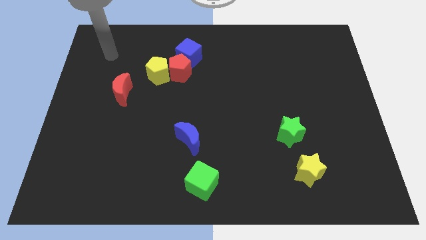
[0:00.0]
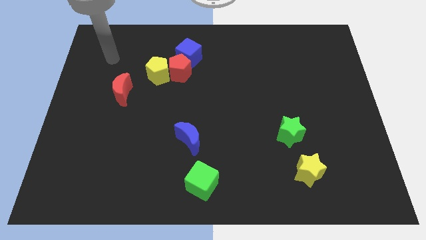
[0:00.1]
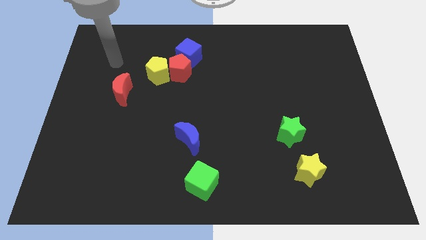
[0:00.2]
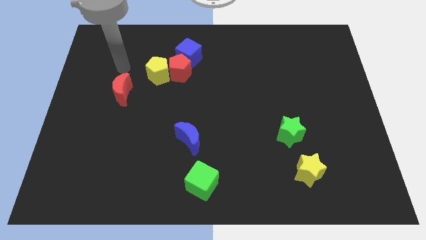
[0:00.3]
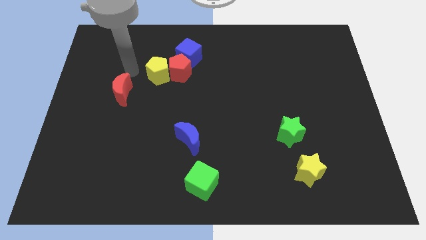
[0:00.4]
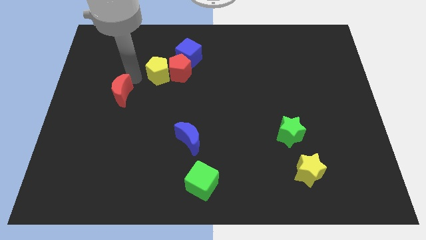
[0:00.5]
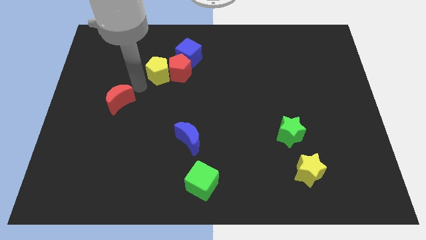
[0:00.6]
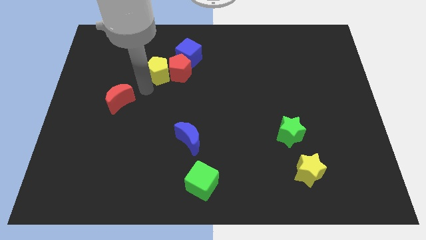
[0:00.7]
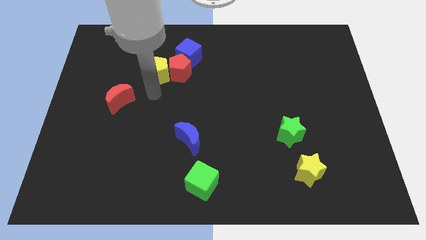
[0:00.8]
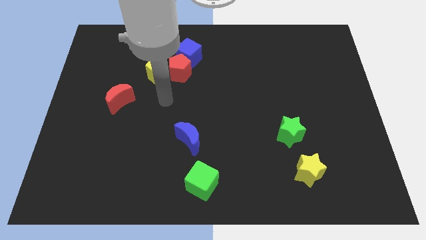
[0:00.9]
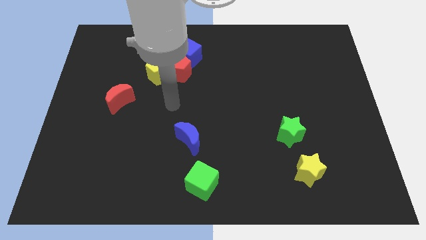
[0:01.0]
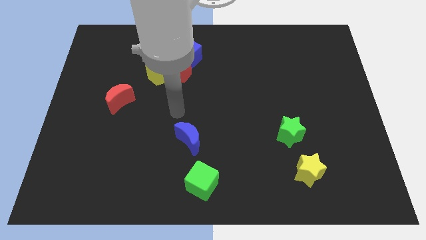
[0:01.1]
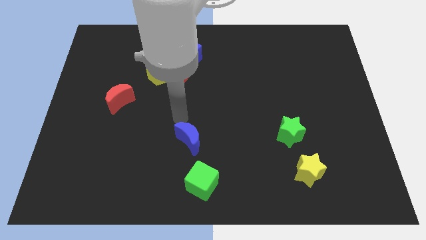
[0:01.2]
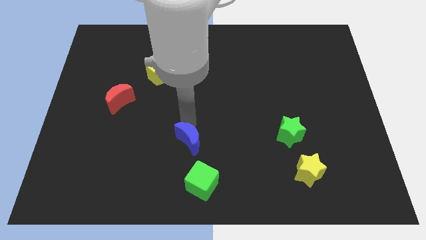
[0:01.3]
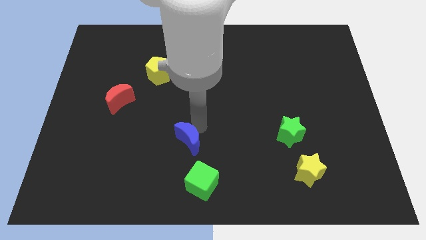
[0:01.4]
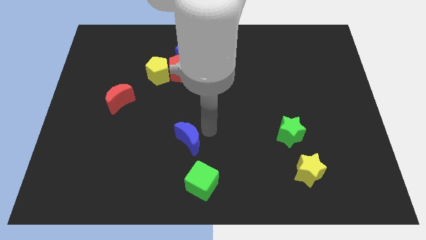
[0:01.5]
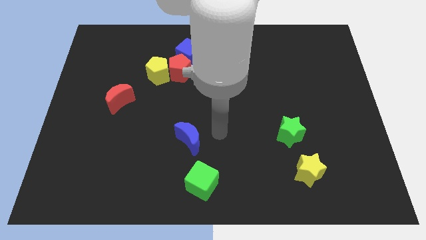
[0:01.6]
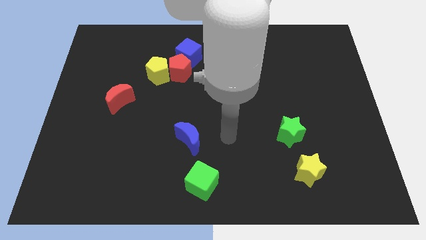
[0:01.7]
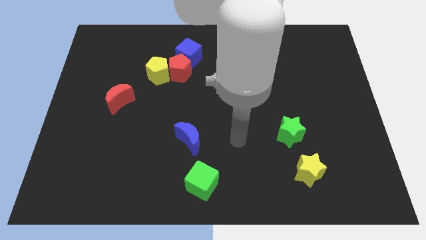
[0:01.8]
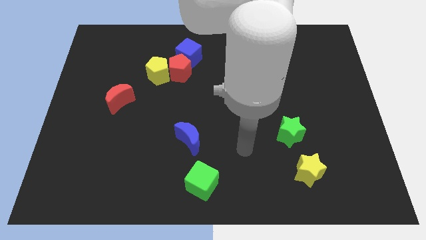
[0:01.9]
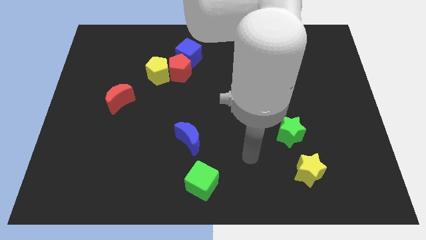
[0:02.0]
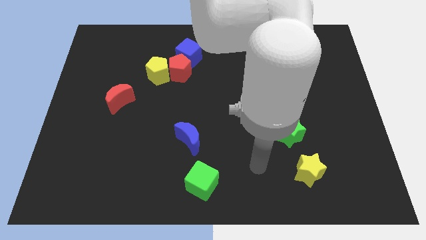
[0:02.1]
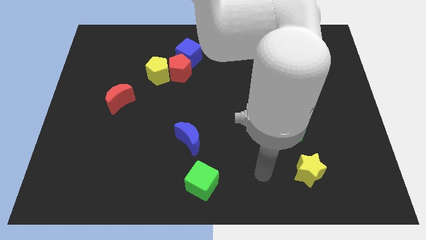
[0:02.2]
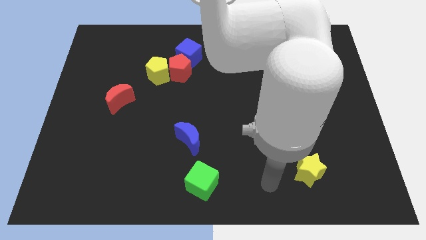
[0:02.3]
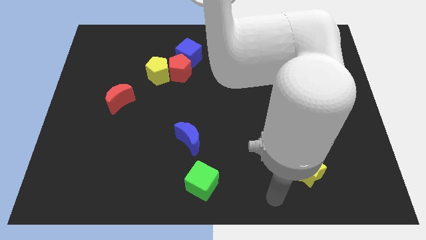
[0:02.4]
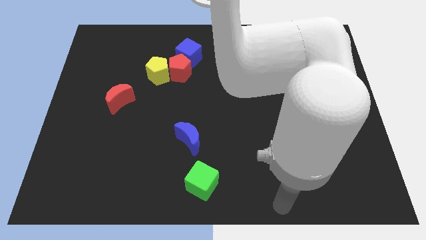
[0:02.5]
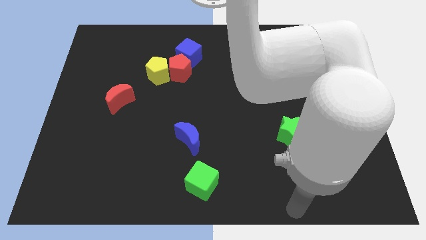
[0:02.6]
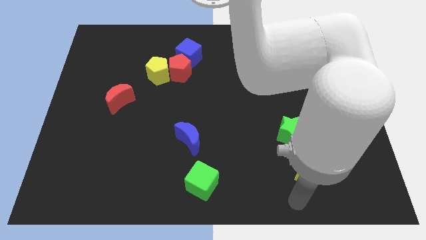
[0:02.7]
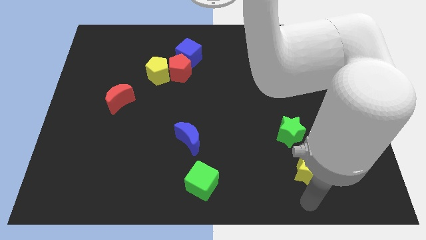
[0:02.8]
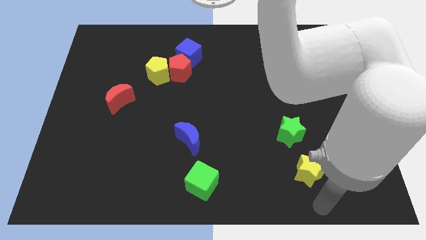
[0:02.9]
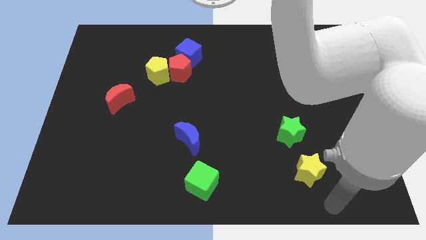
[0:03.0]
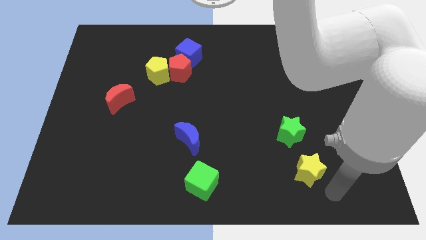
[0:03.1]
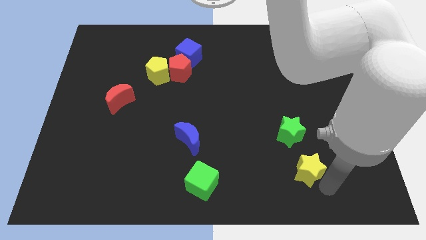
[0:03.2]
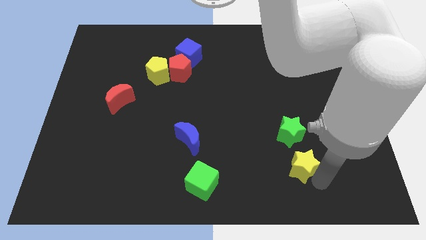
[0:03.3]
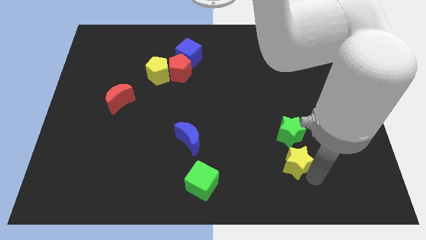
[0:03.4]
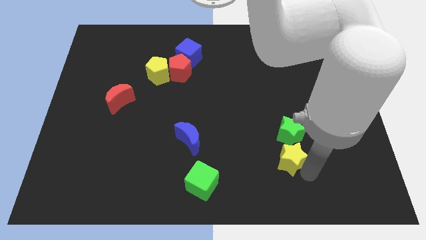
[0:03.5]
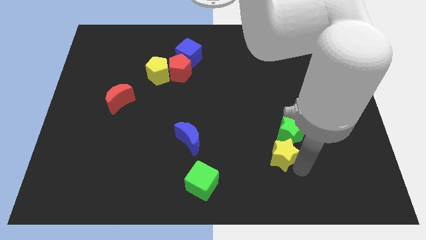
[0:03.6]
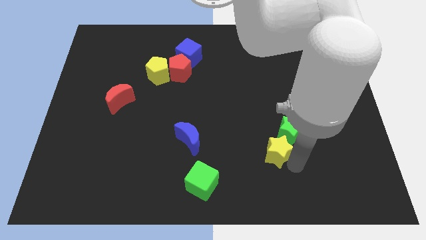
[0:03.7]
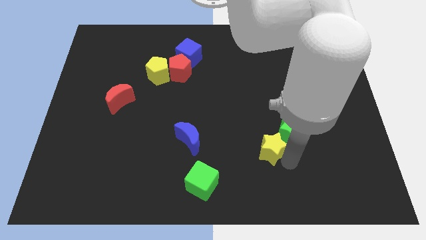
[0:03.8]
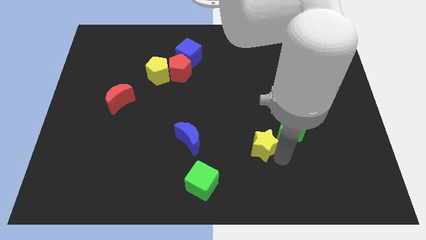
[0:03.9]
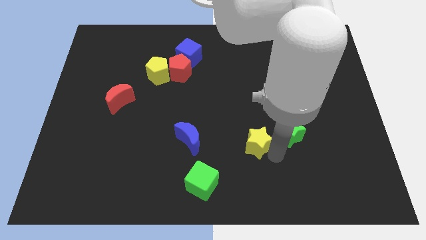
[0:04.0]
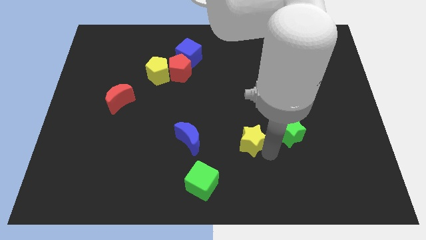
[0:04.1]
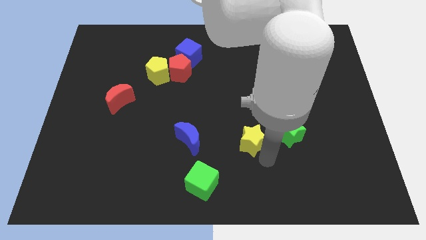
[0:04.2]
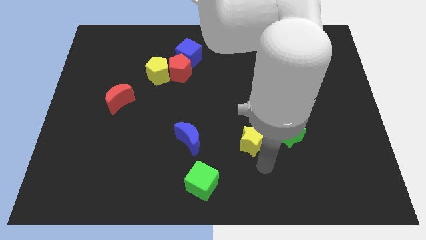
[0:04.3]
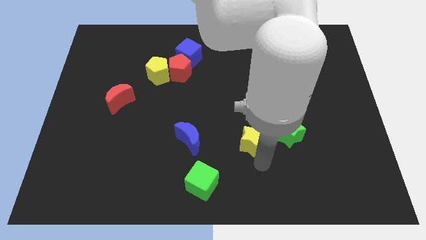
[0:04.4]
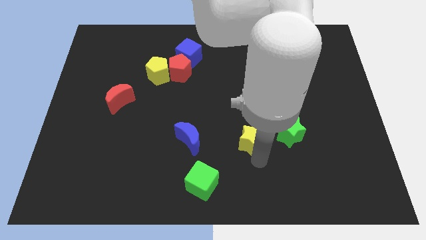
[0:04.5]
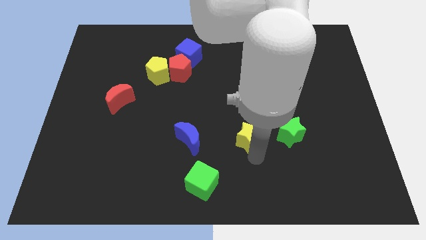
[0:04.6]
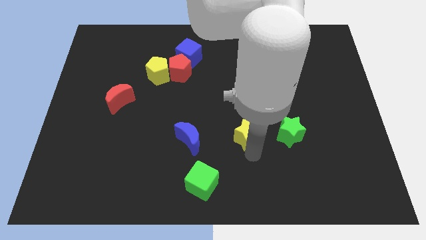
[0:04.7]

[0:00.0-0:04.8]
push the yellow star to the center of the board

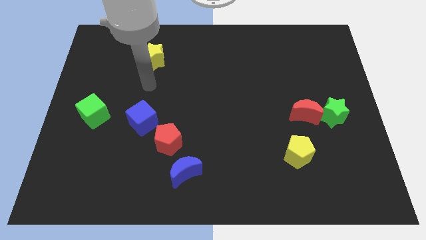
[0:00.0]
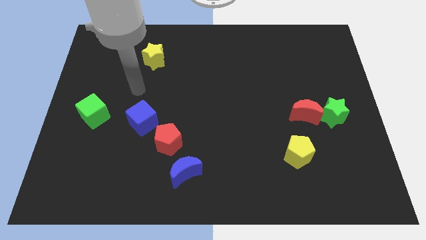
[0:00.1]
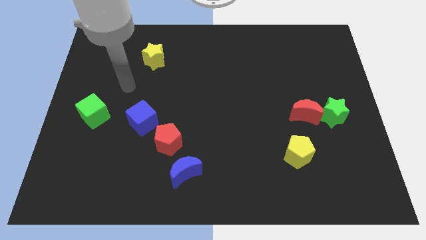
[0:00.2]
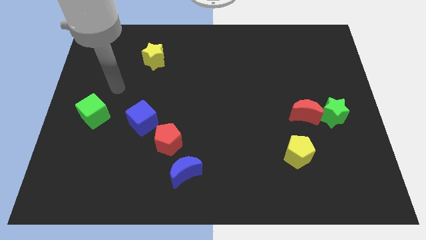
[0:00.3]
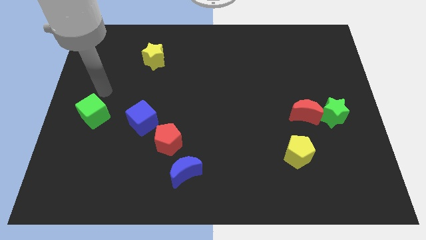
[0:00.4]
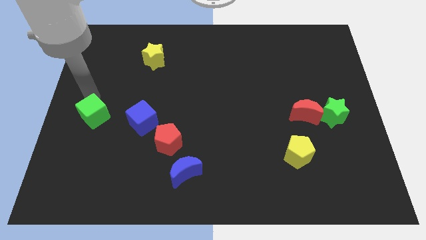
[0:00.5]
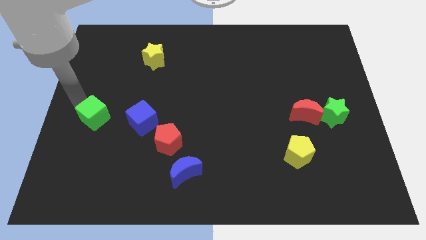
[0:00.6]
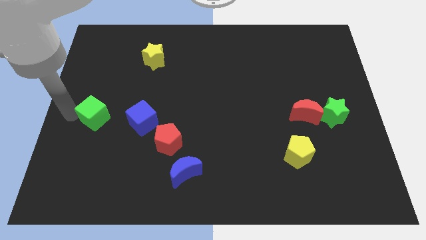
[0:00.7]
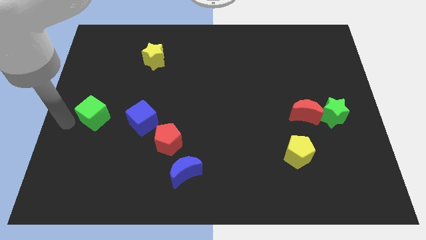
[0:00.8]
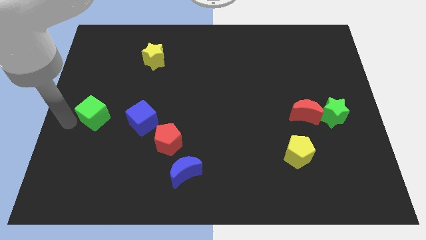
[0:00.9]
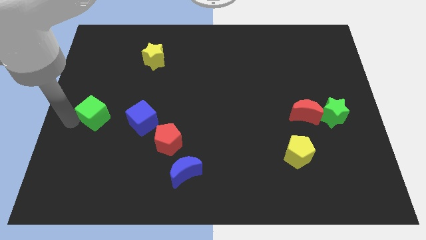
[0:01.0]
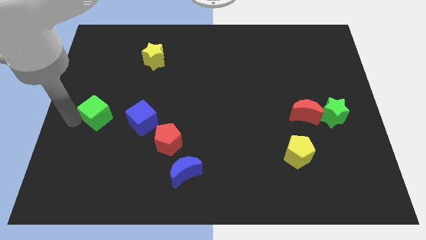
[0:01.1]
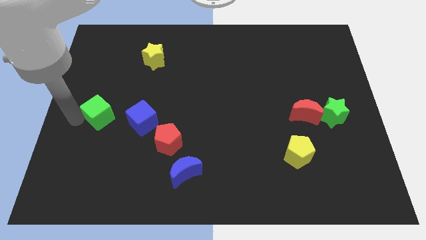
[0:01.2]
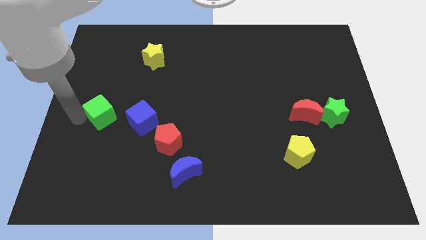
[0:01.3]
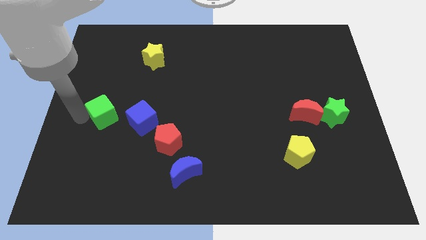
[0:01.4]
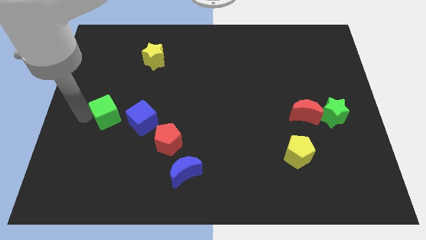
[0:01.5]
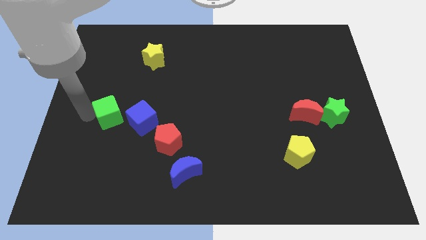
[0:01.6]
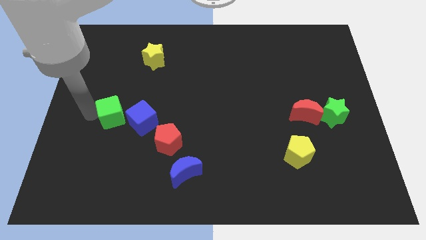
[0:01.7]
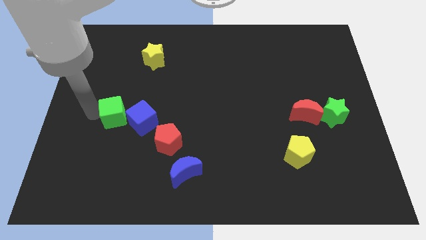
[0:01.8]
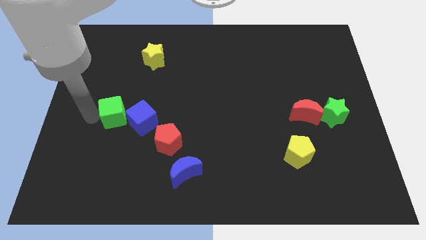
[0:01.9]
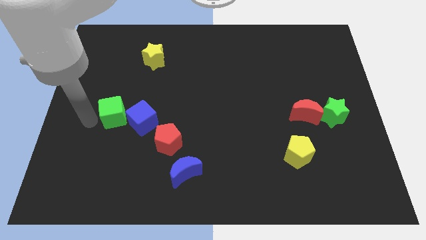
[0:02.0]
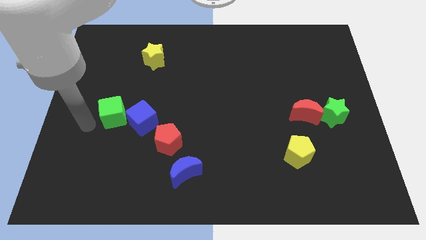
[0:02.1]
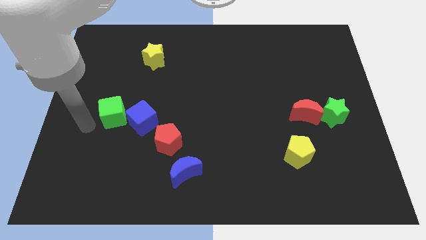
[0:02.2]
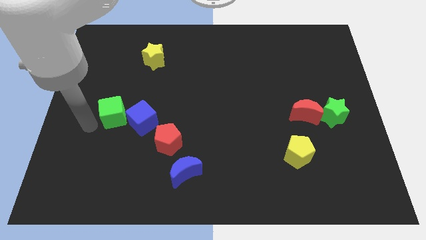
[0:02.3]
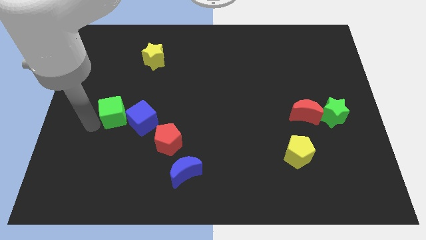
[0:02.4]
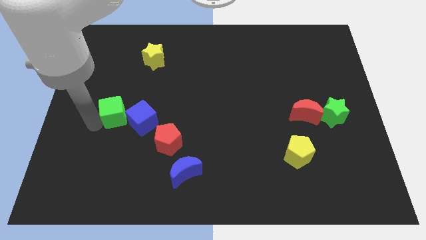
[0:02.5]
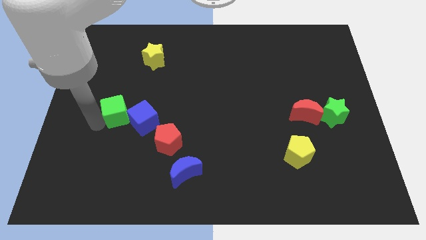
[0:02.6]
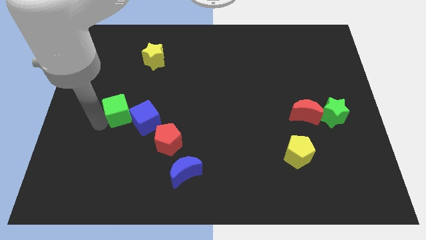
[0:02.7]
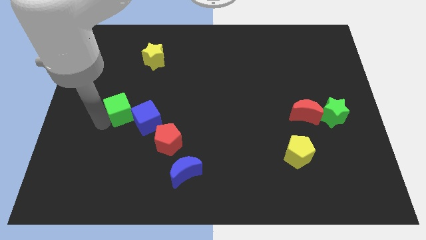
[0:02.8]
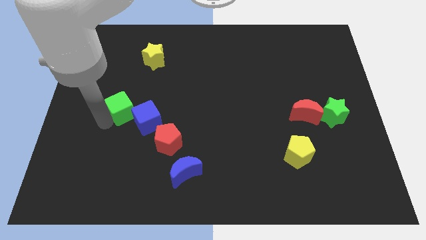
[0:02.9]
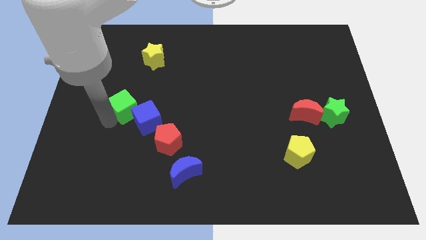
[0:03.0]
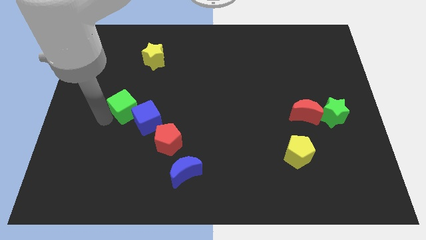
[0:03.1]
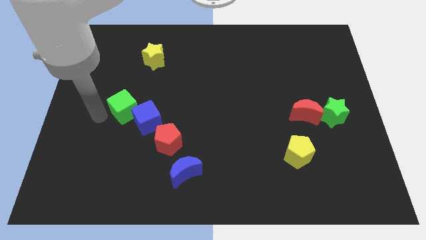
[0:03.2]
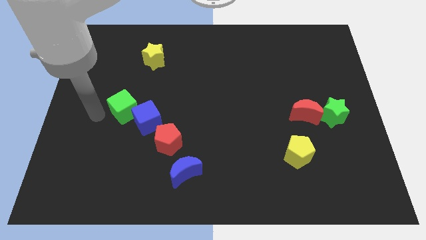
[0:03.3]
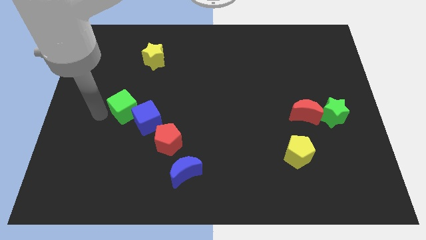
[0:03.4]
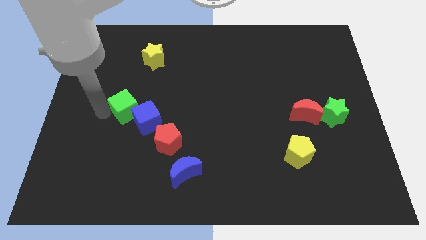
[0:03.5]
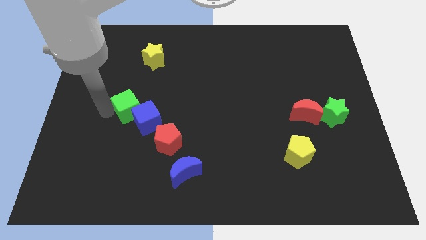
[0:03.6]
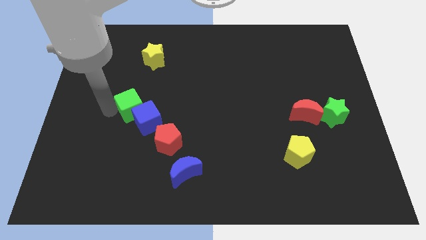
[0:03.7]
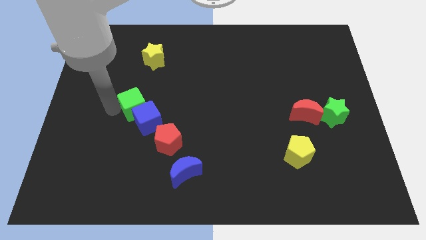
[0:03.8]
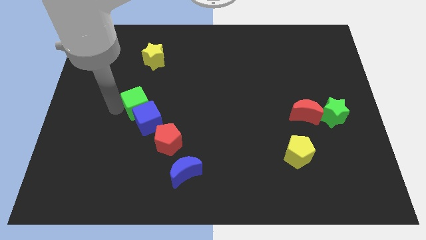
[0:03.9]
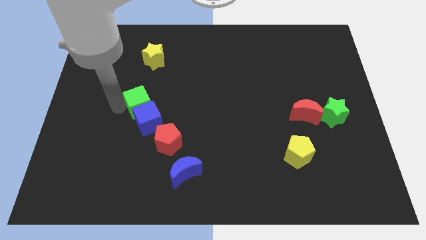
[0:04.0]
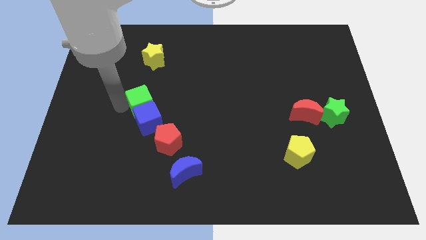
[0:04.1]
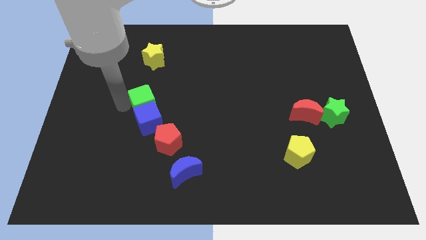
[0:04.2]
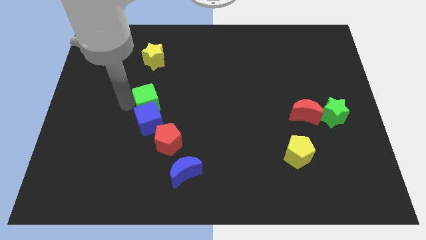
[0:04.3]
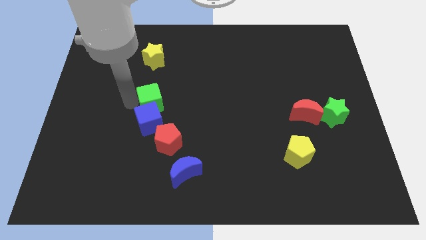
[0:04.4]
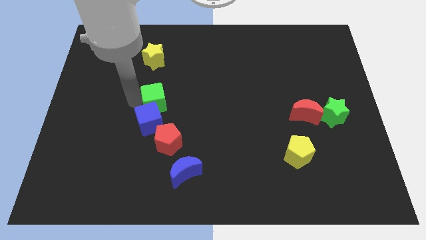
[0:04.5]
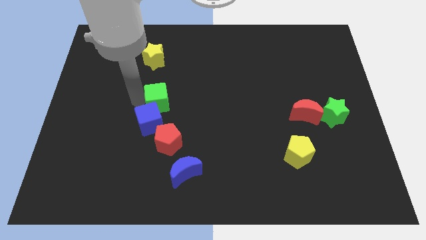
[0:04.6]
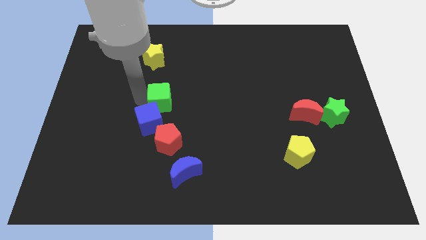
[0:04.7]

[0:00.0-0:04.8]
put the green cube to the middle of the board
